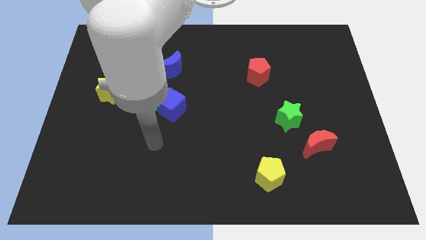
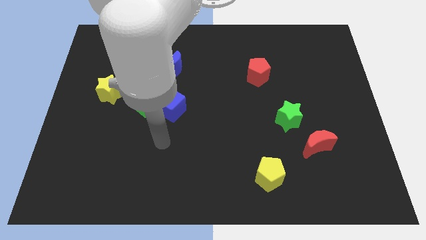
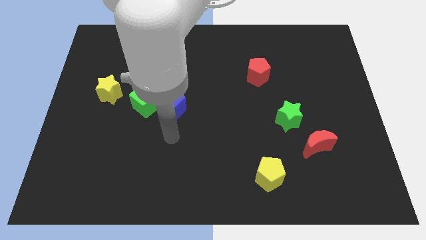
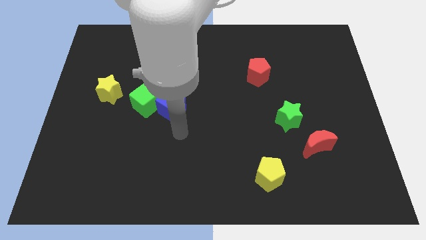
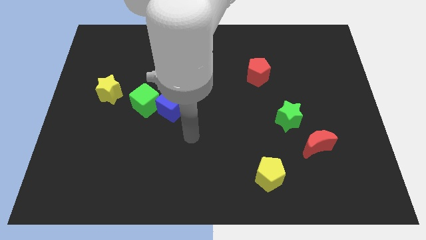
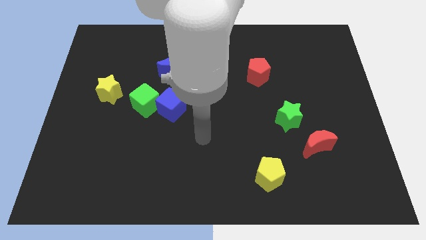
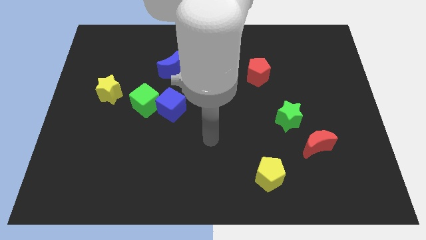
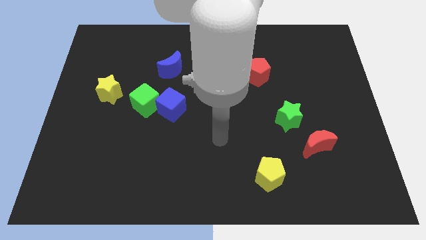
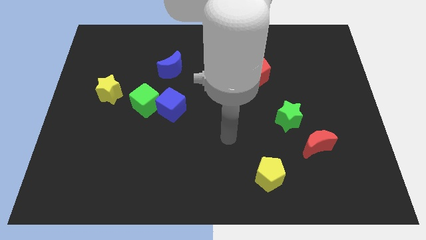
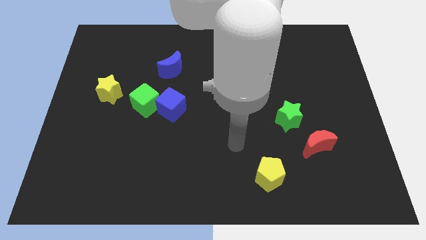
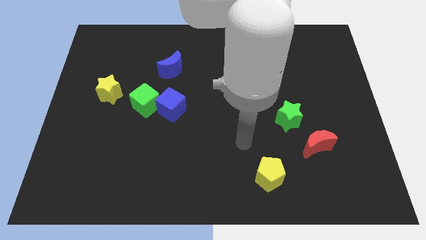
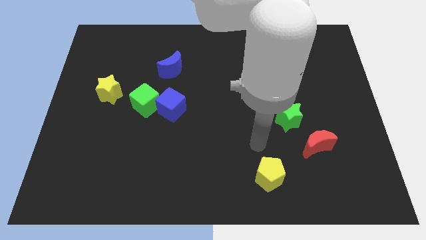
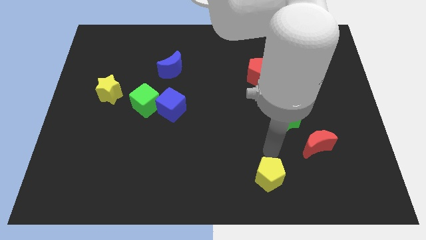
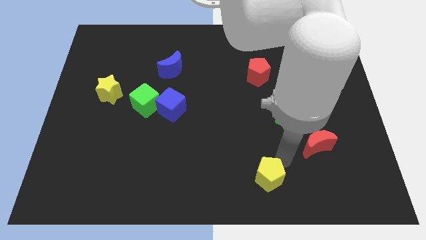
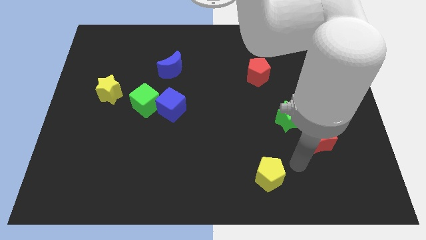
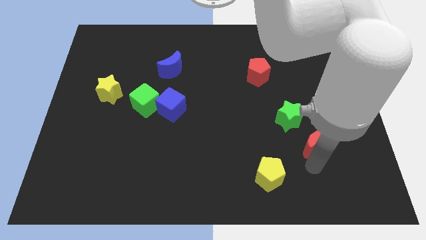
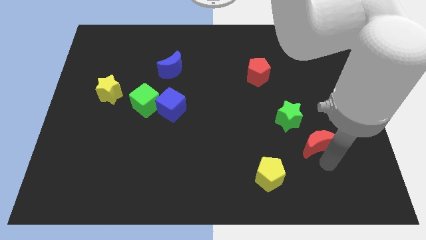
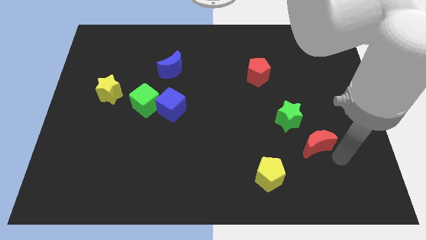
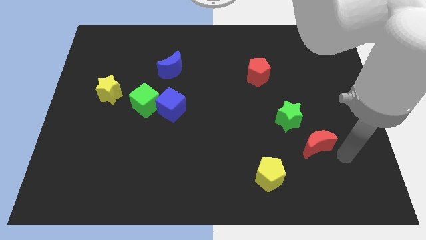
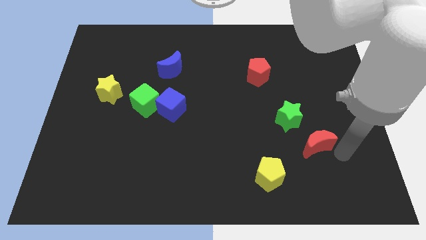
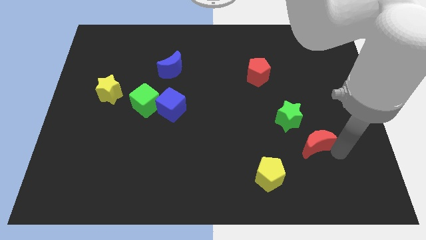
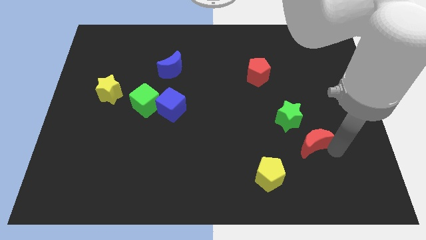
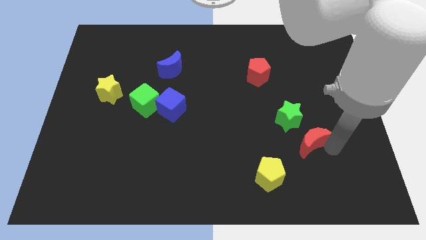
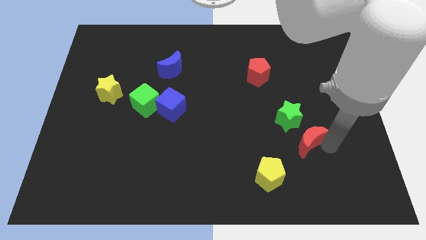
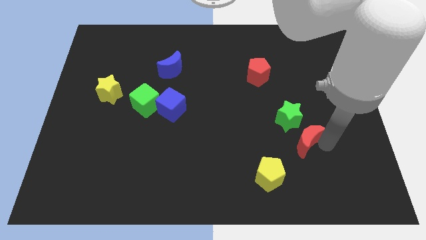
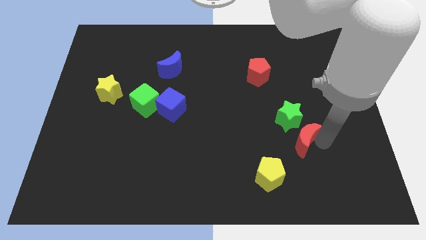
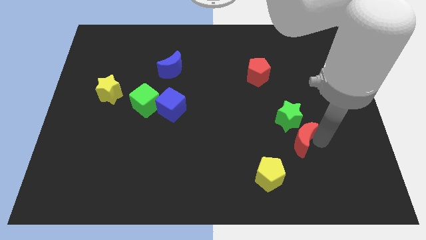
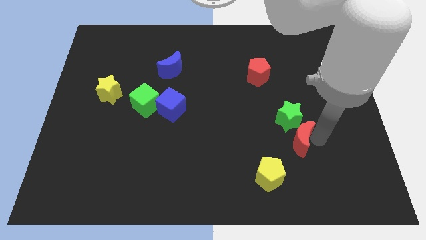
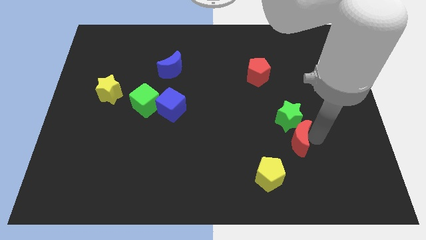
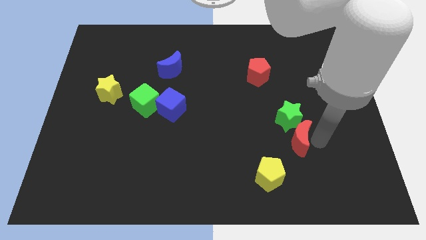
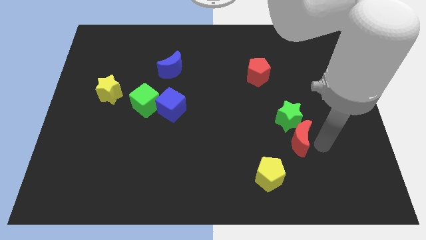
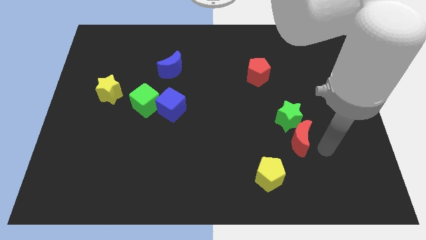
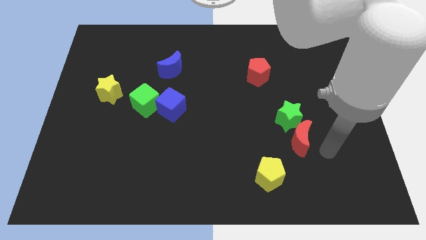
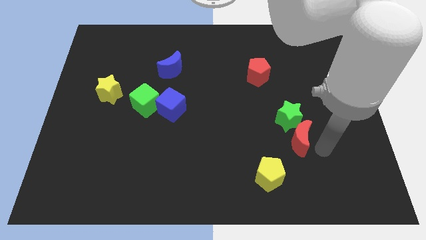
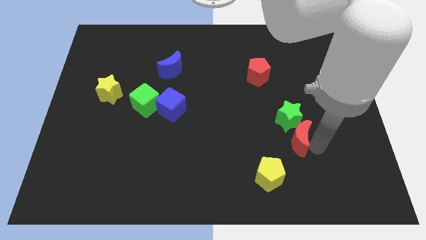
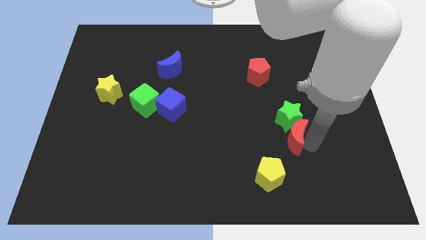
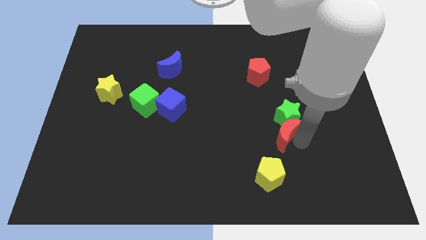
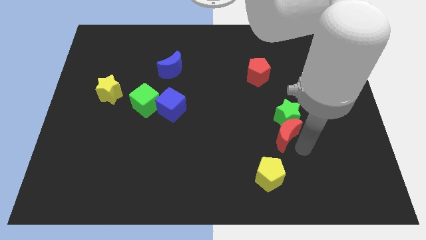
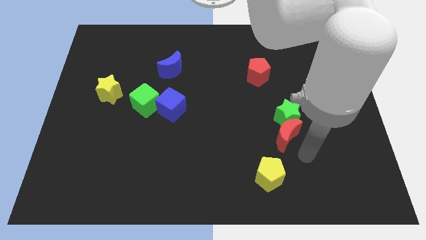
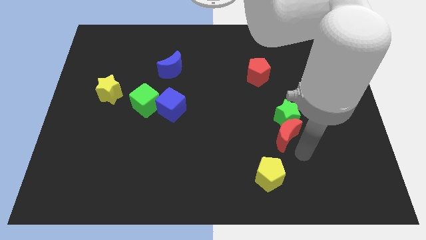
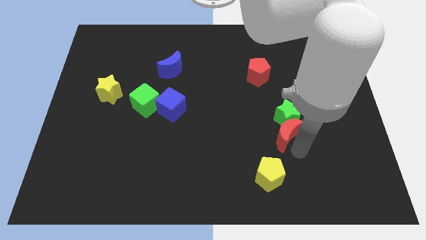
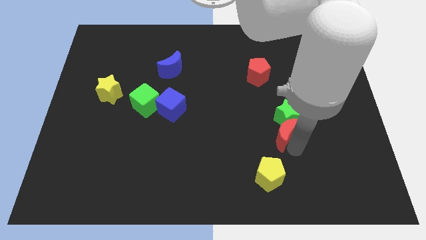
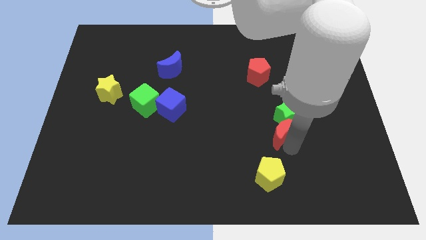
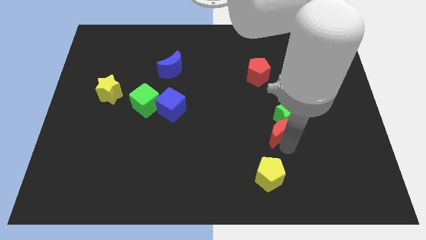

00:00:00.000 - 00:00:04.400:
slide the red moon up and to the left diagonally a bit

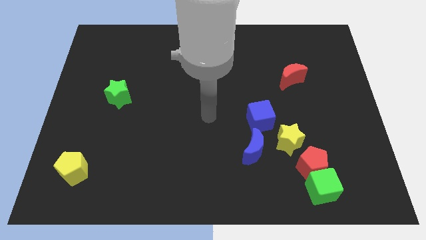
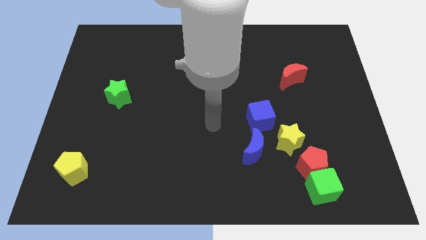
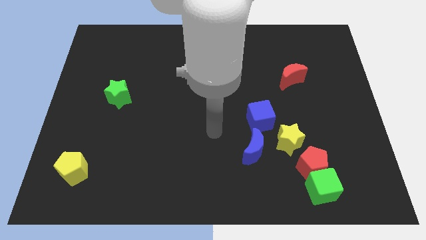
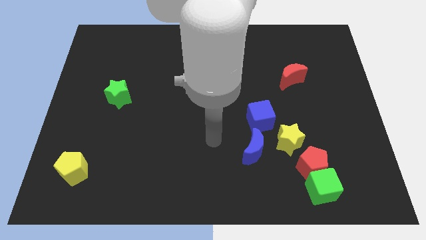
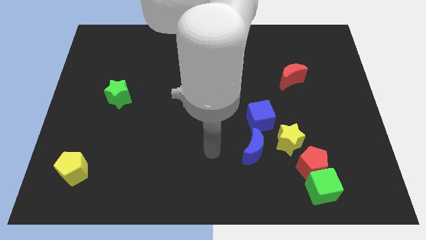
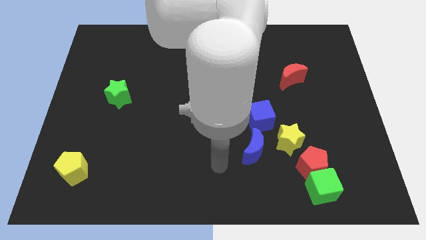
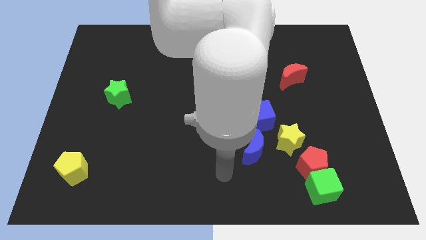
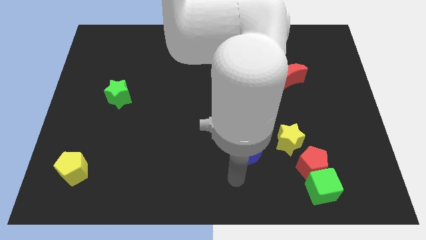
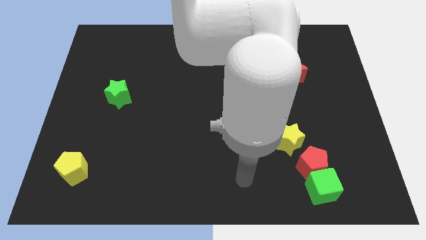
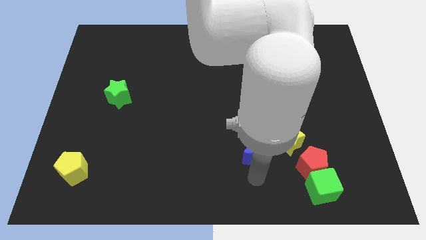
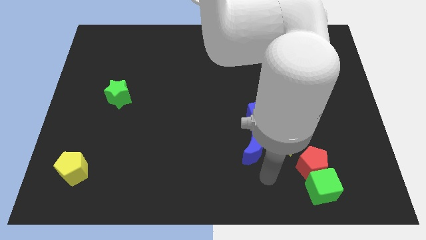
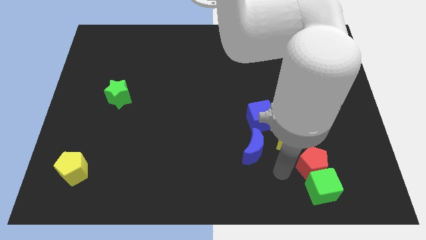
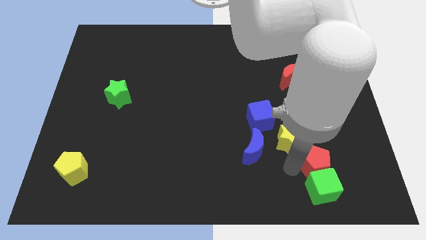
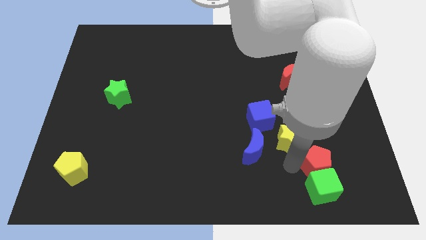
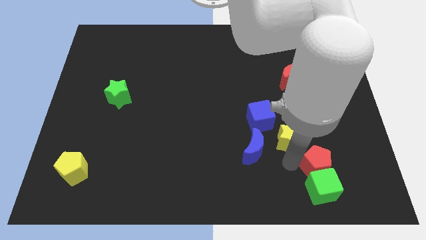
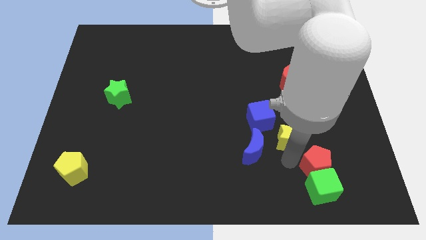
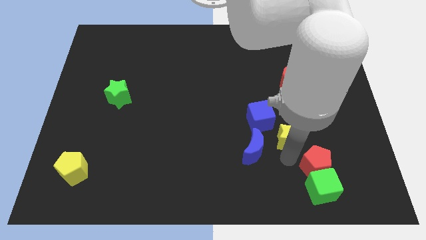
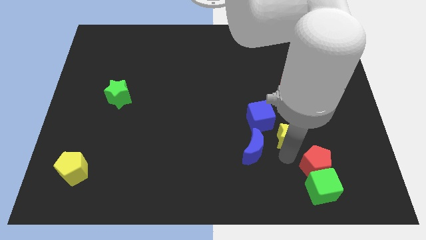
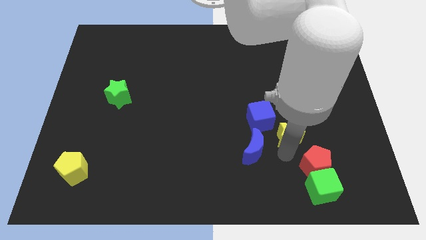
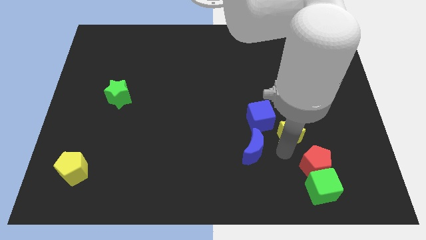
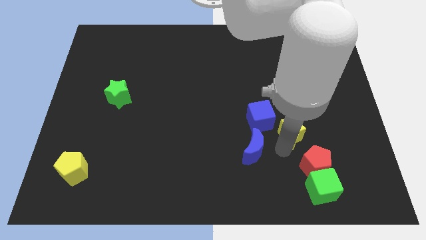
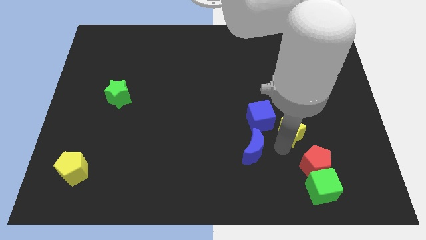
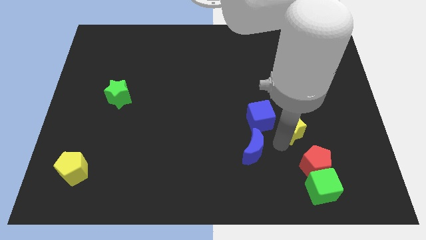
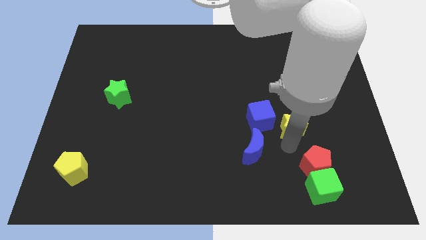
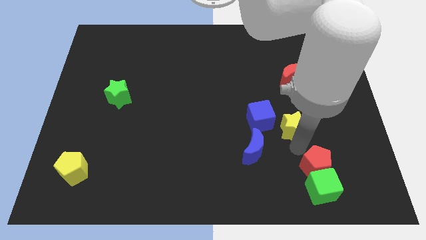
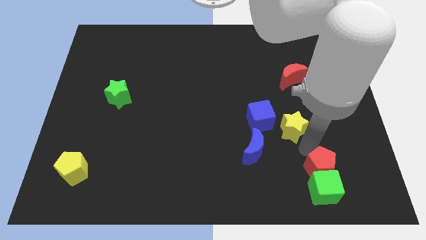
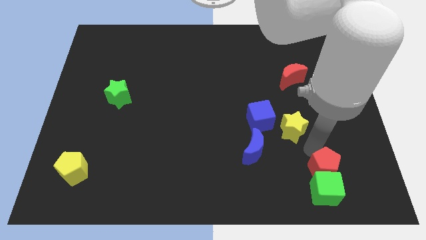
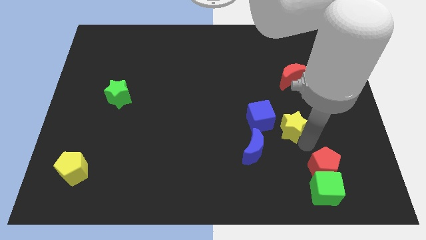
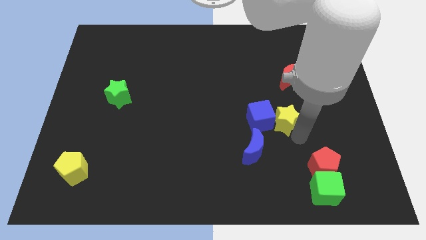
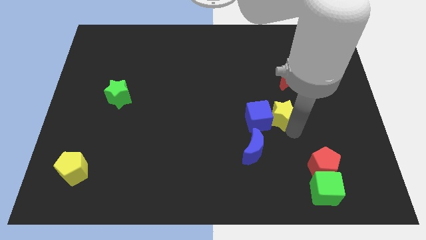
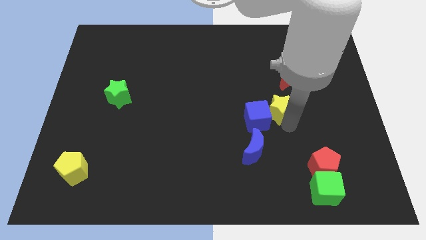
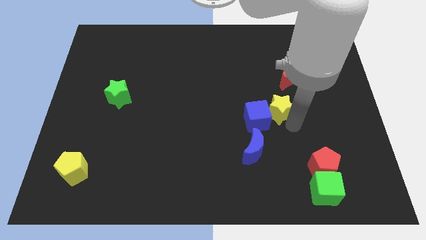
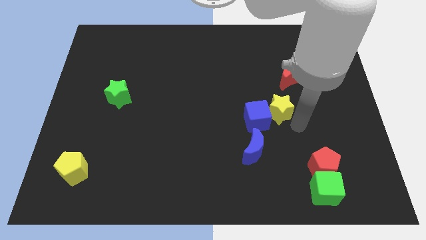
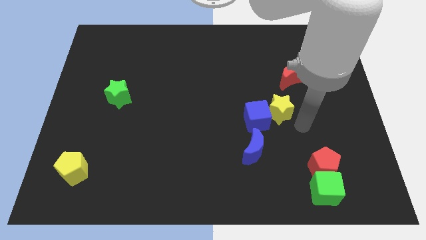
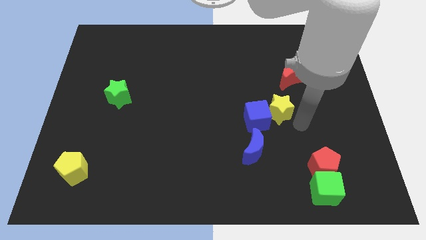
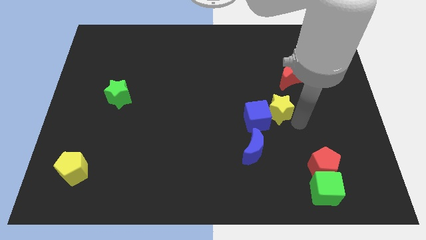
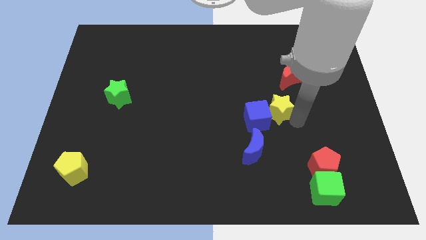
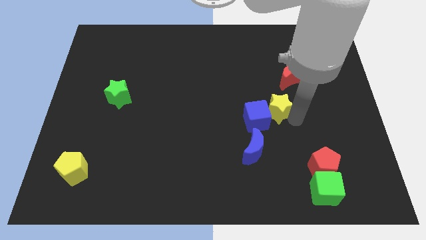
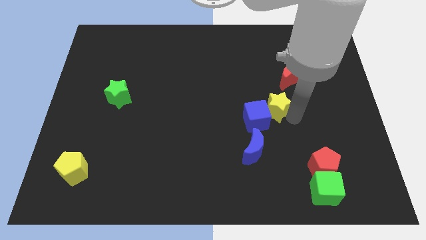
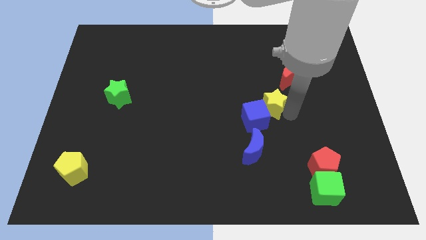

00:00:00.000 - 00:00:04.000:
slightly slide the yellow star upwards and then left
